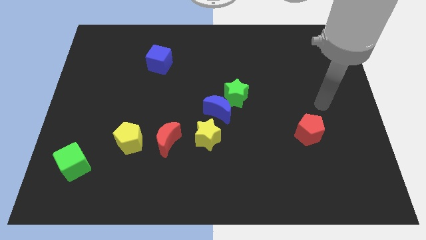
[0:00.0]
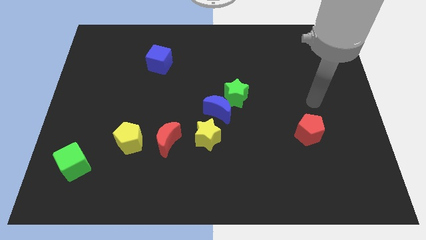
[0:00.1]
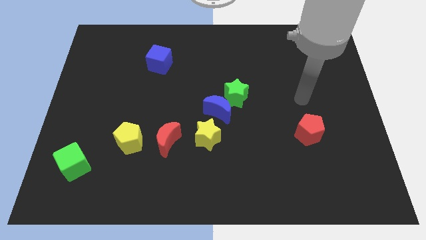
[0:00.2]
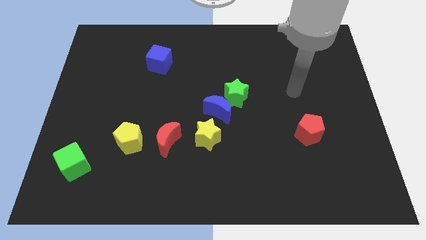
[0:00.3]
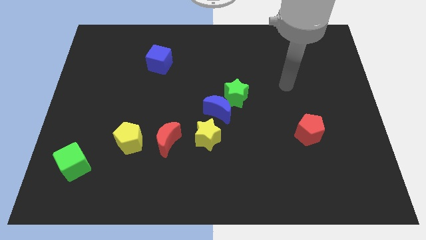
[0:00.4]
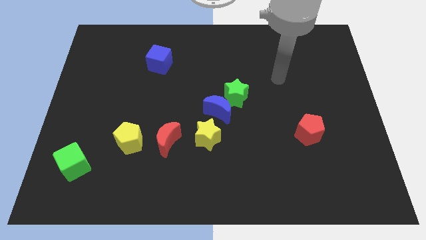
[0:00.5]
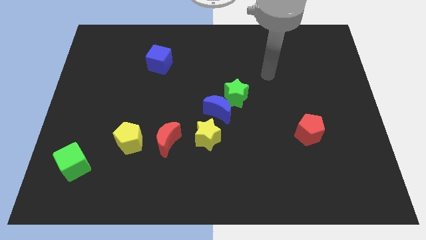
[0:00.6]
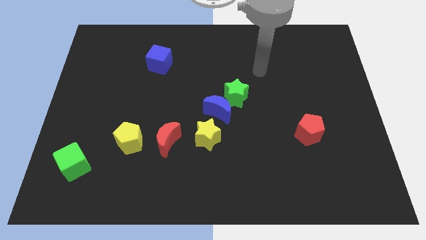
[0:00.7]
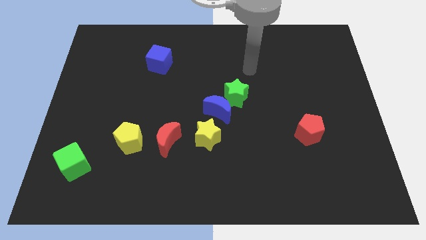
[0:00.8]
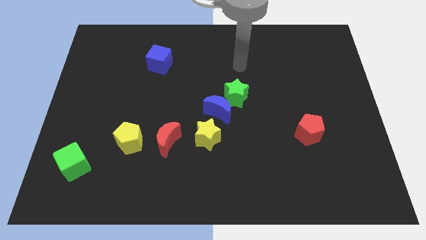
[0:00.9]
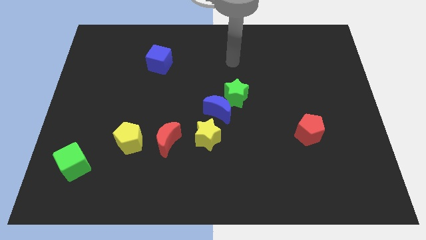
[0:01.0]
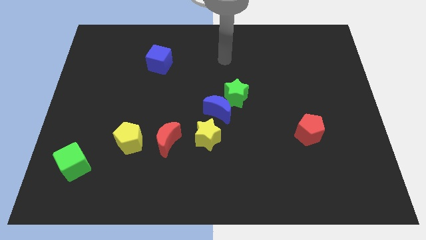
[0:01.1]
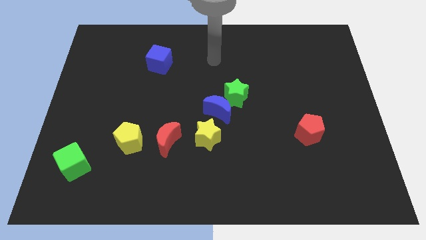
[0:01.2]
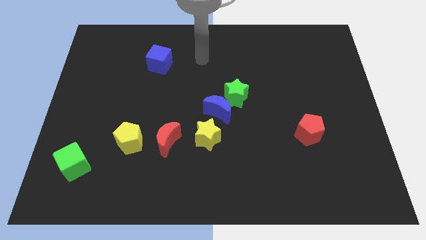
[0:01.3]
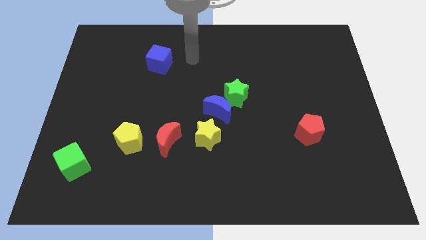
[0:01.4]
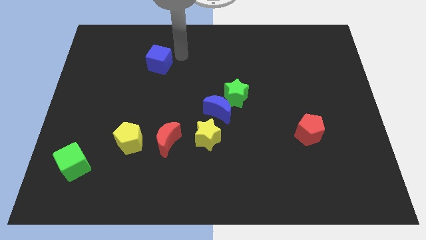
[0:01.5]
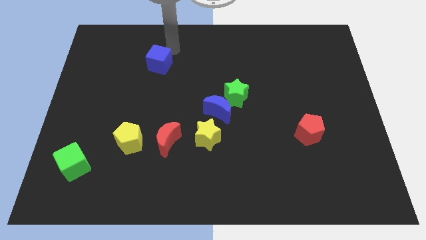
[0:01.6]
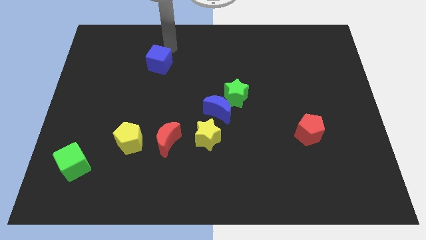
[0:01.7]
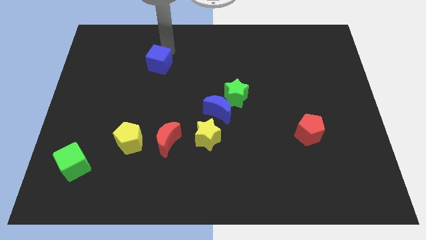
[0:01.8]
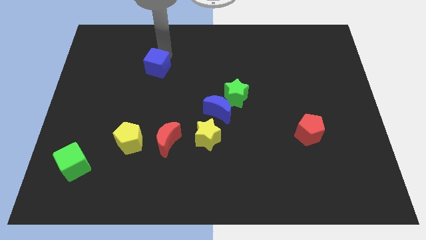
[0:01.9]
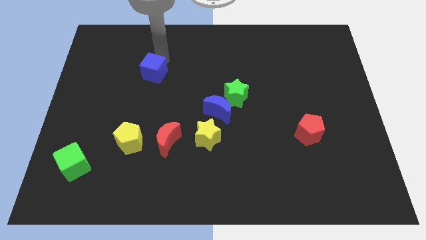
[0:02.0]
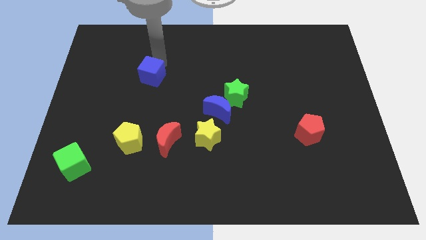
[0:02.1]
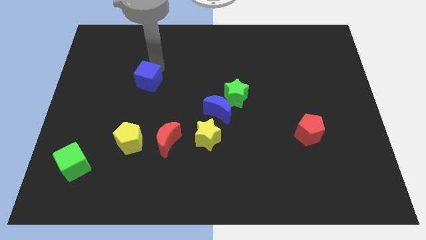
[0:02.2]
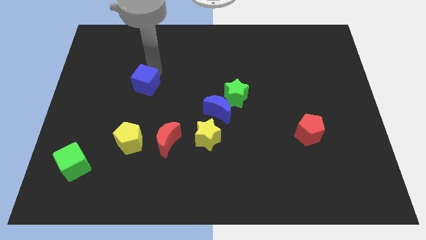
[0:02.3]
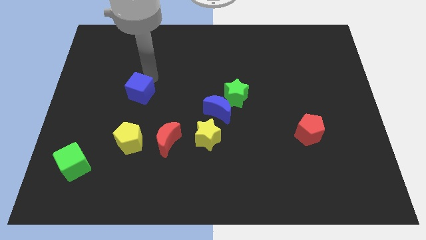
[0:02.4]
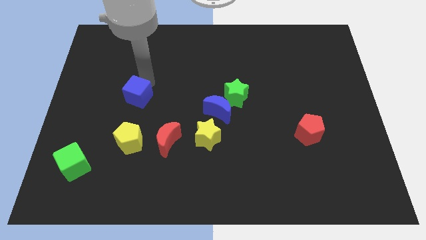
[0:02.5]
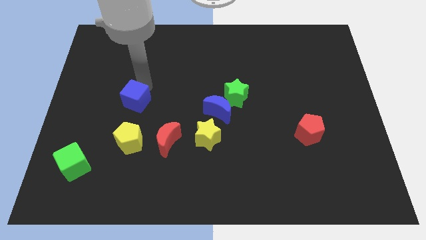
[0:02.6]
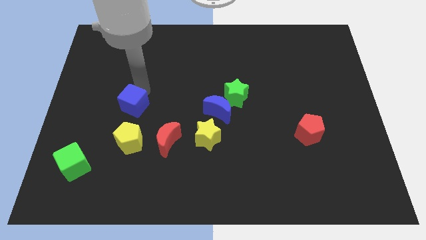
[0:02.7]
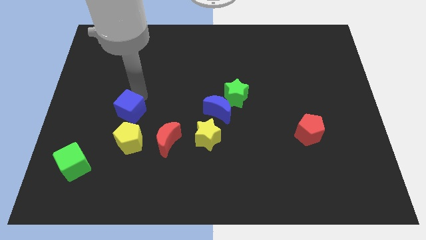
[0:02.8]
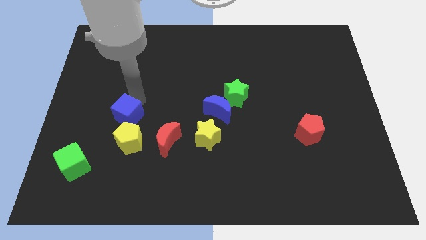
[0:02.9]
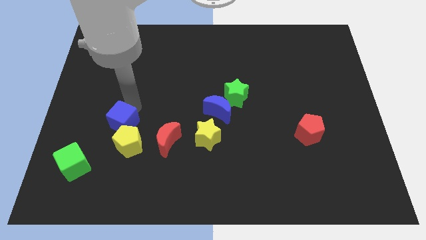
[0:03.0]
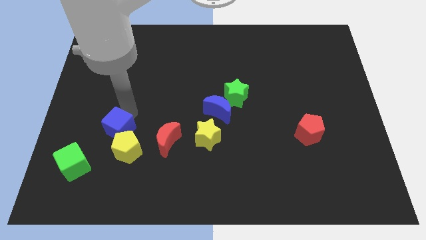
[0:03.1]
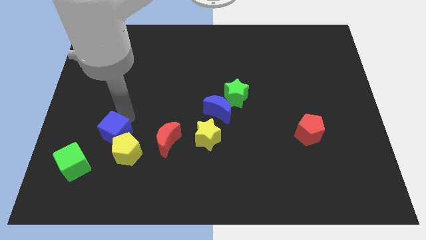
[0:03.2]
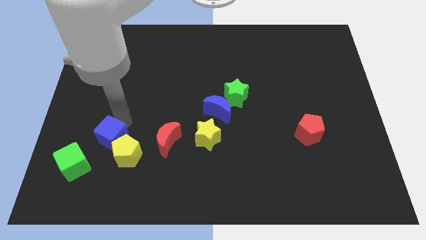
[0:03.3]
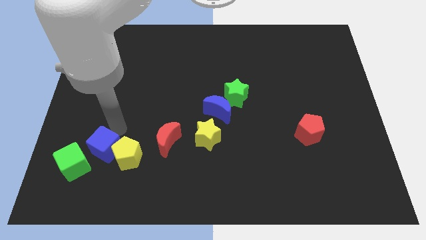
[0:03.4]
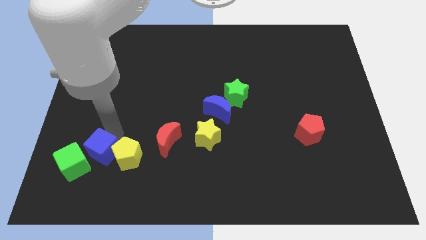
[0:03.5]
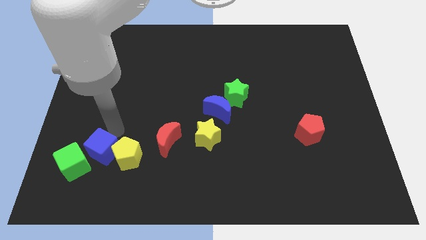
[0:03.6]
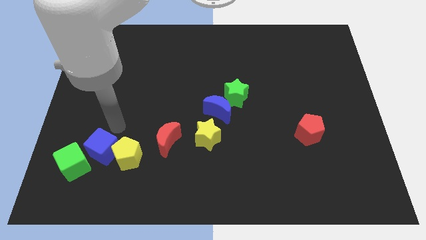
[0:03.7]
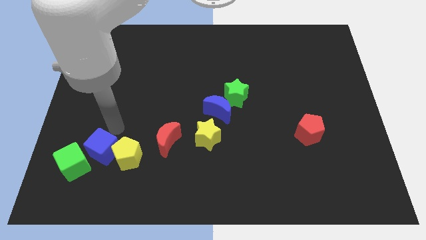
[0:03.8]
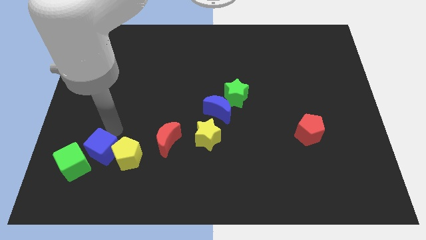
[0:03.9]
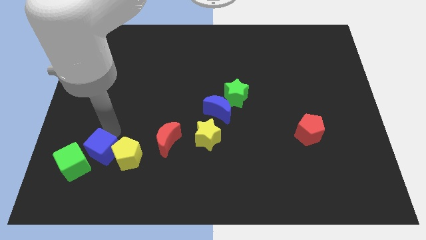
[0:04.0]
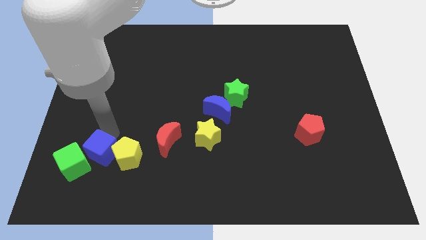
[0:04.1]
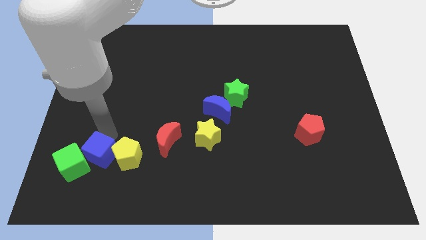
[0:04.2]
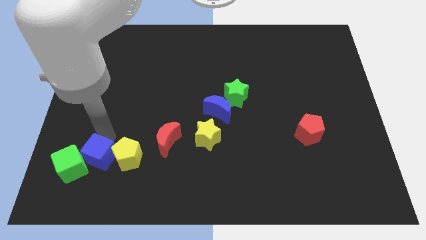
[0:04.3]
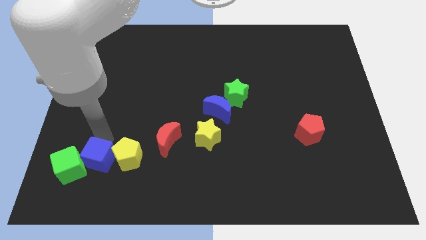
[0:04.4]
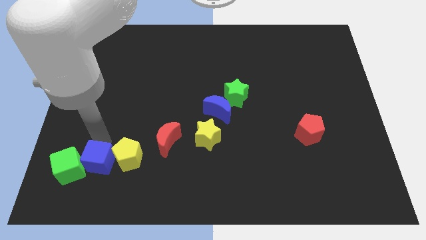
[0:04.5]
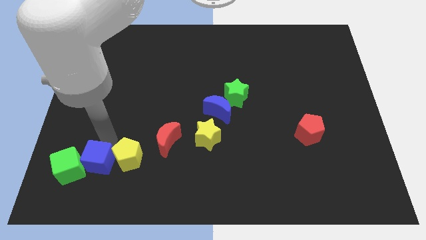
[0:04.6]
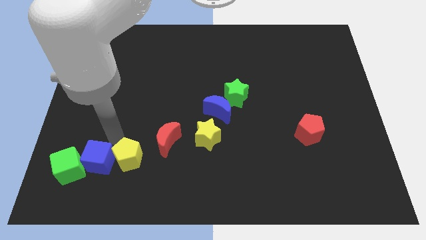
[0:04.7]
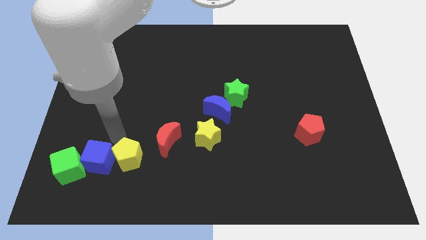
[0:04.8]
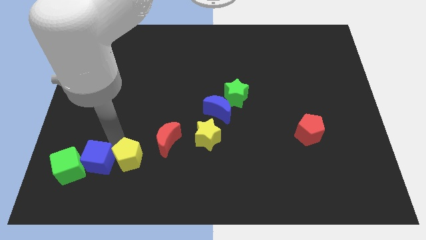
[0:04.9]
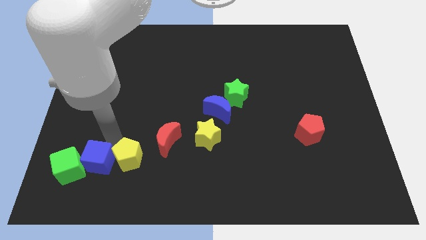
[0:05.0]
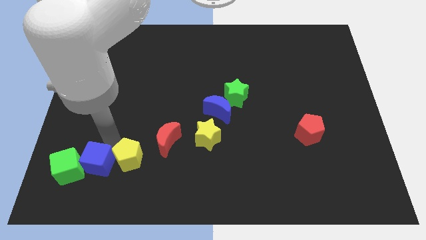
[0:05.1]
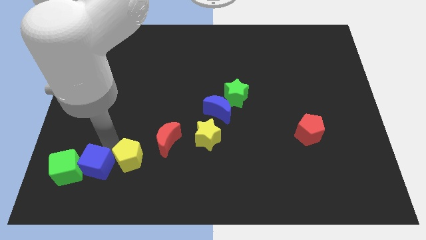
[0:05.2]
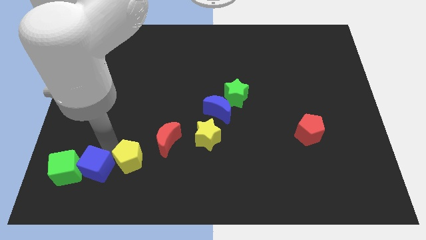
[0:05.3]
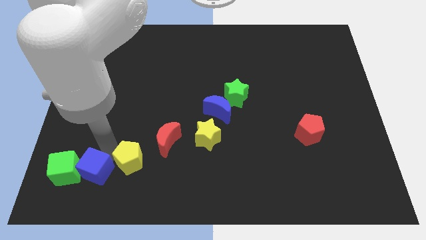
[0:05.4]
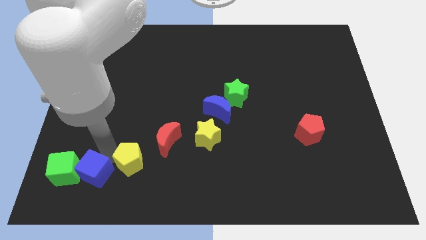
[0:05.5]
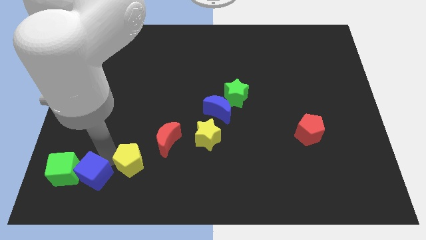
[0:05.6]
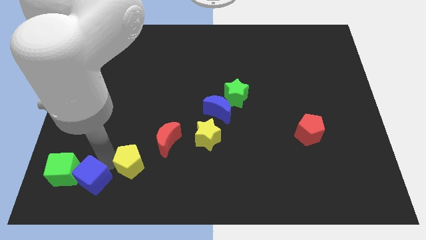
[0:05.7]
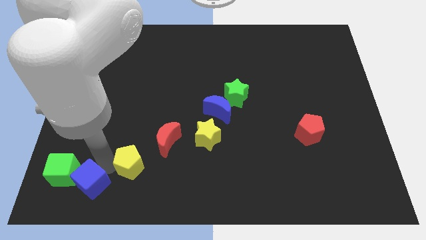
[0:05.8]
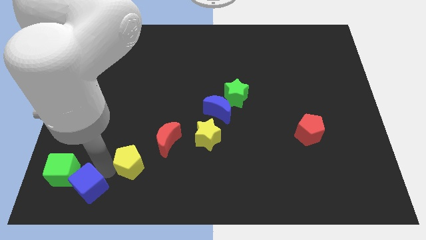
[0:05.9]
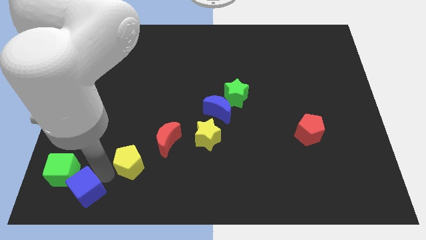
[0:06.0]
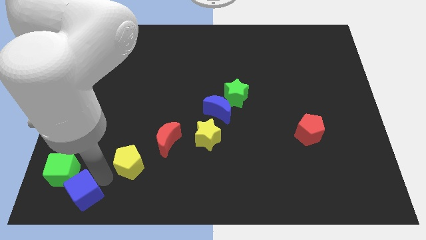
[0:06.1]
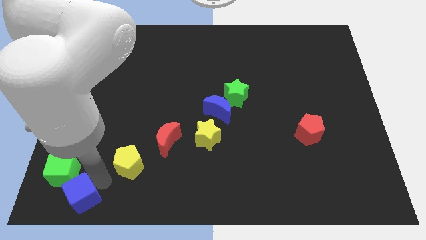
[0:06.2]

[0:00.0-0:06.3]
move the blue cube to the bottom left corner

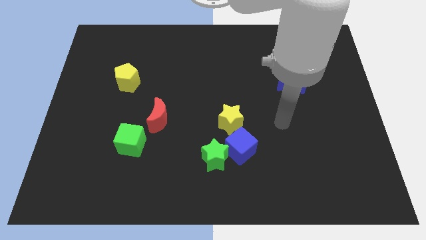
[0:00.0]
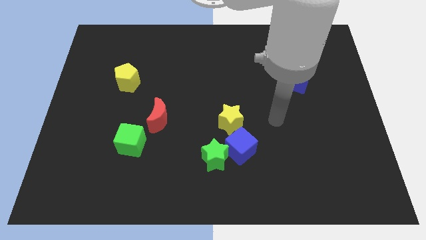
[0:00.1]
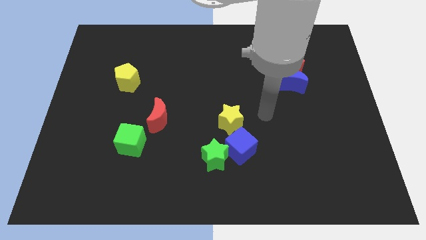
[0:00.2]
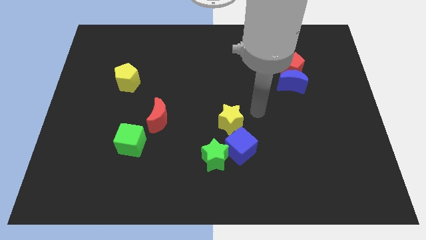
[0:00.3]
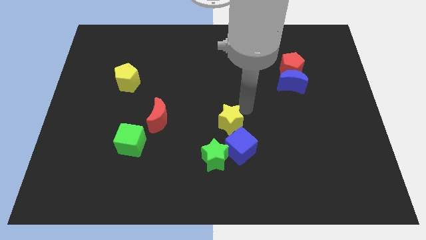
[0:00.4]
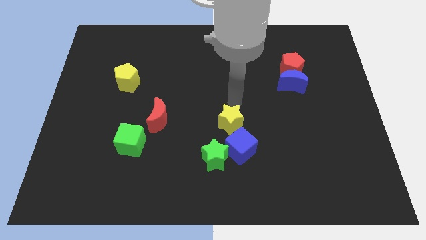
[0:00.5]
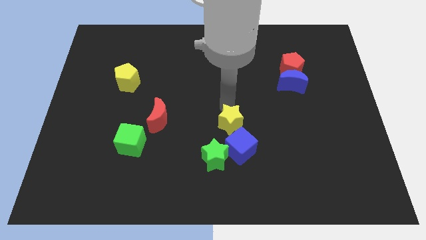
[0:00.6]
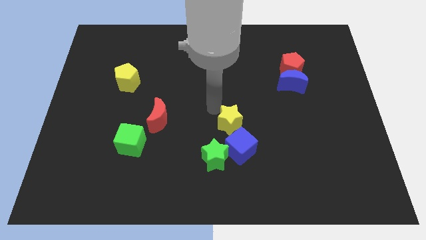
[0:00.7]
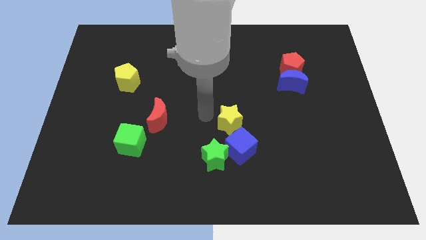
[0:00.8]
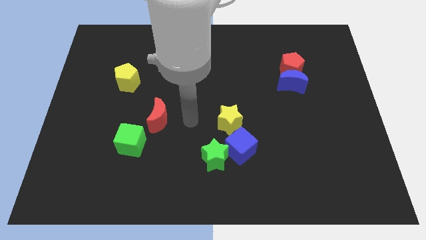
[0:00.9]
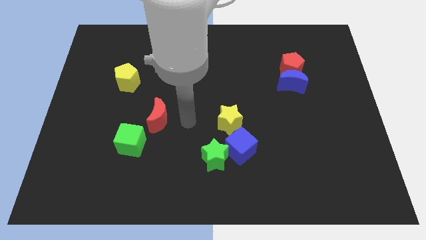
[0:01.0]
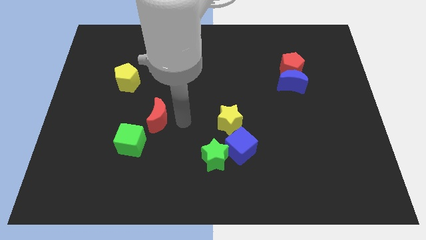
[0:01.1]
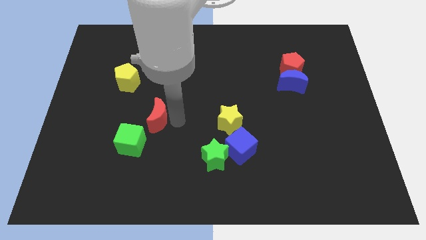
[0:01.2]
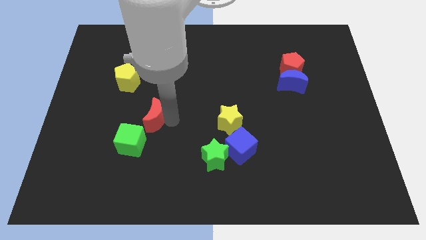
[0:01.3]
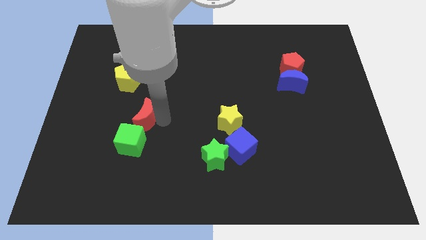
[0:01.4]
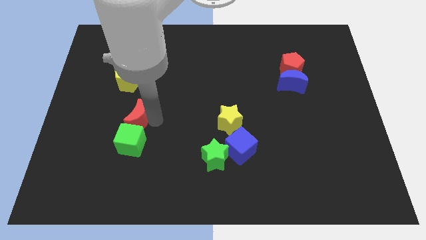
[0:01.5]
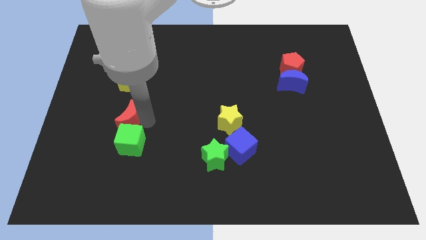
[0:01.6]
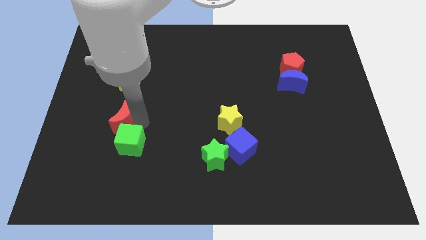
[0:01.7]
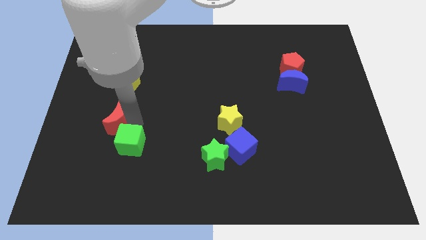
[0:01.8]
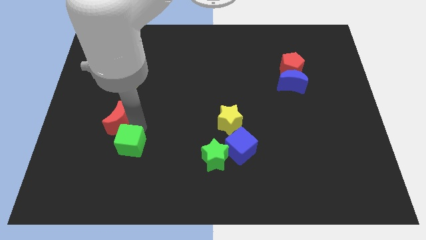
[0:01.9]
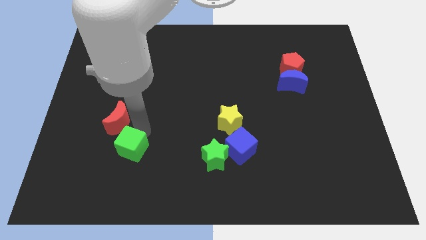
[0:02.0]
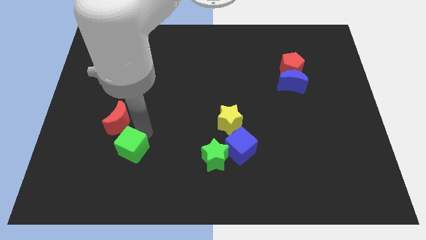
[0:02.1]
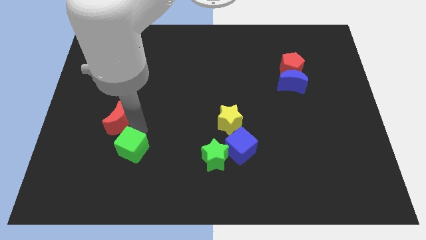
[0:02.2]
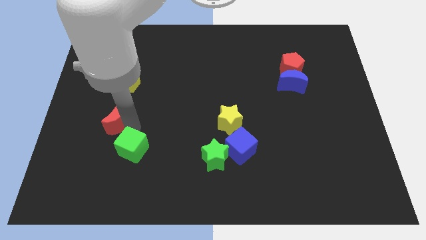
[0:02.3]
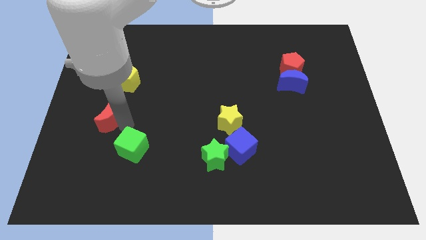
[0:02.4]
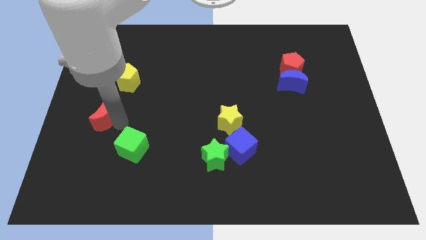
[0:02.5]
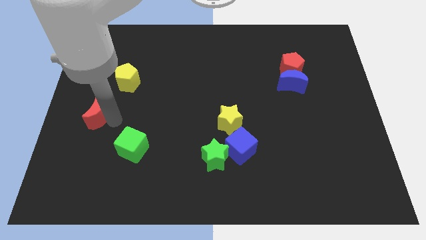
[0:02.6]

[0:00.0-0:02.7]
put the red moon to the center left
